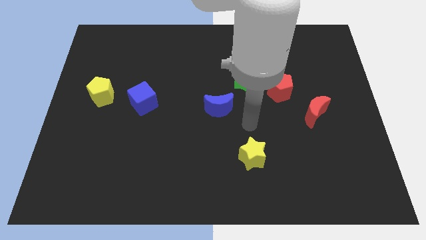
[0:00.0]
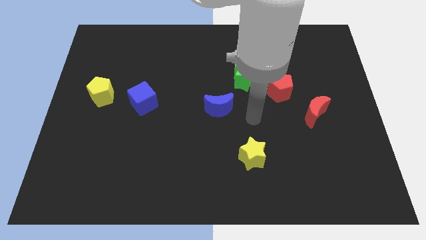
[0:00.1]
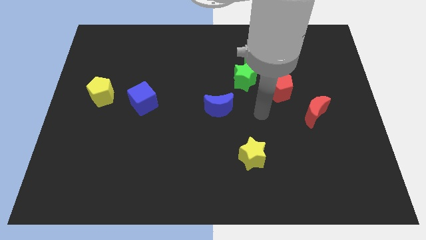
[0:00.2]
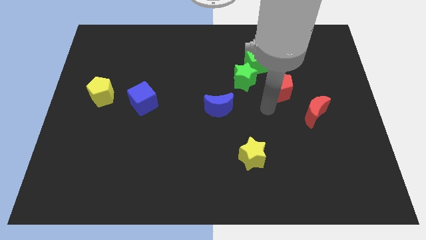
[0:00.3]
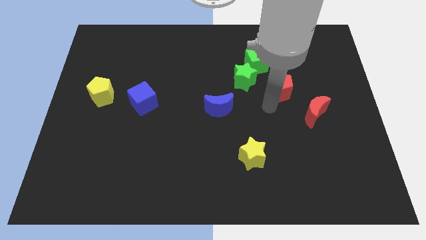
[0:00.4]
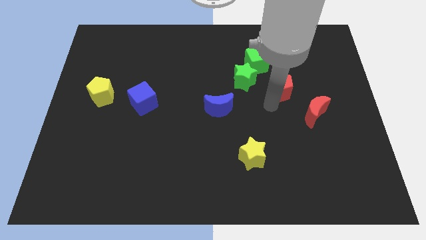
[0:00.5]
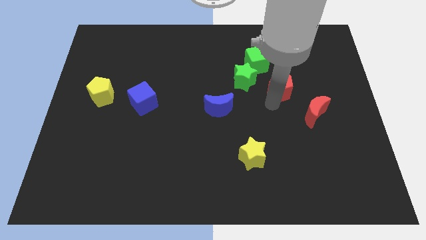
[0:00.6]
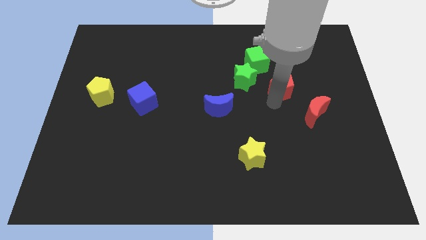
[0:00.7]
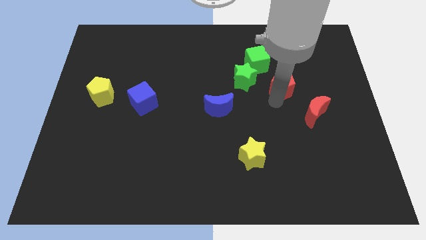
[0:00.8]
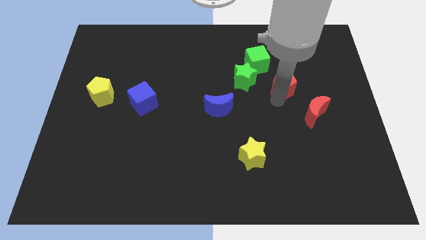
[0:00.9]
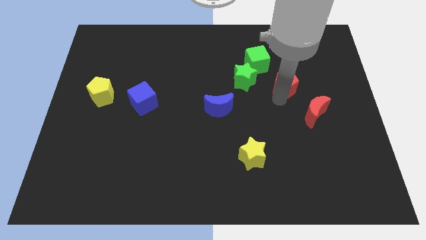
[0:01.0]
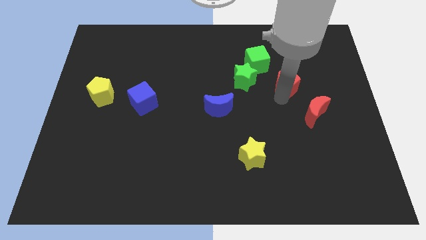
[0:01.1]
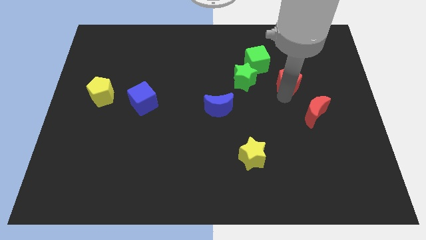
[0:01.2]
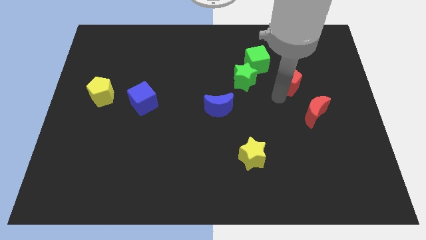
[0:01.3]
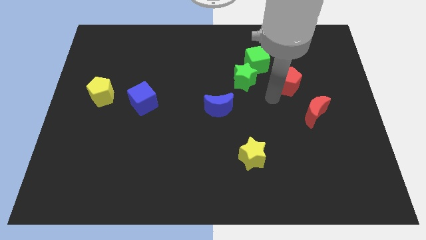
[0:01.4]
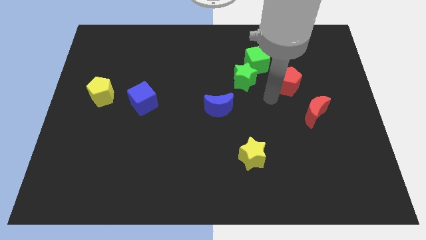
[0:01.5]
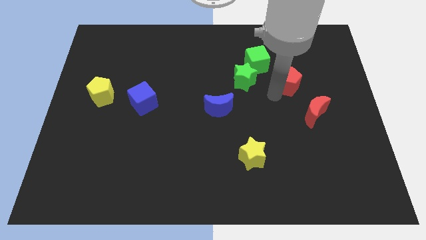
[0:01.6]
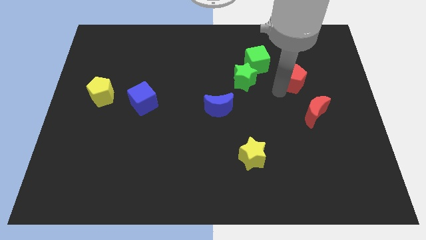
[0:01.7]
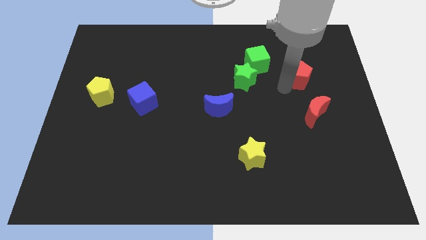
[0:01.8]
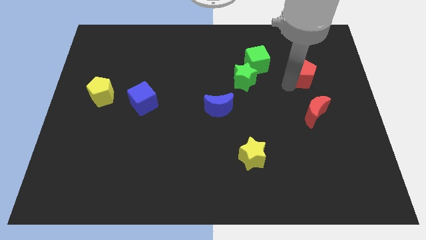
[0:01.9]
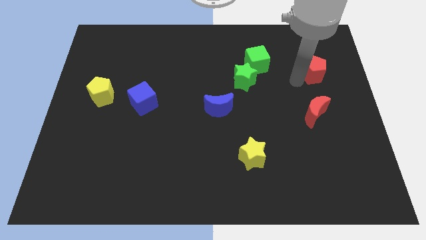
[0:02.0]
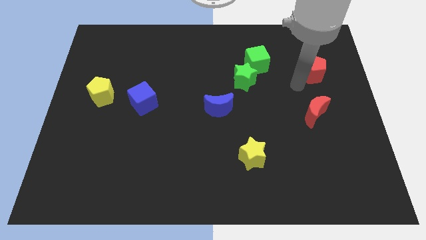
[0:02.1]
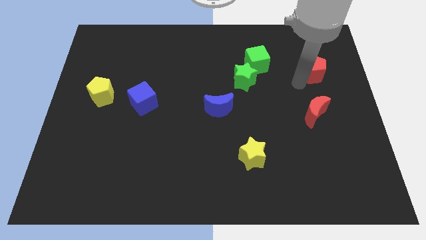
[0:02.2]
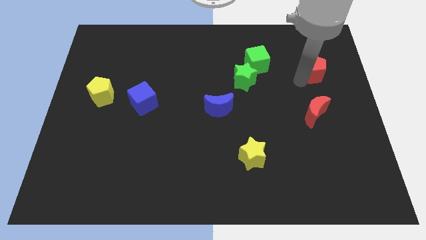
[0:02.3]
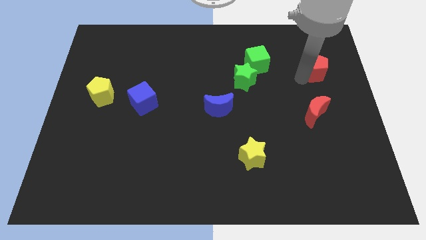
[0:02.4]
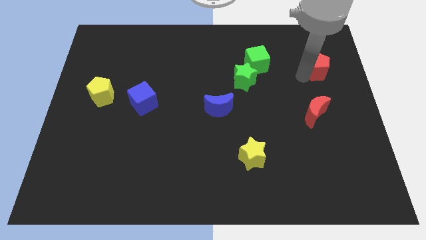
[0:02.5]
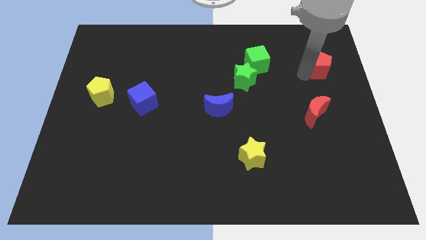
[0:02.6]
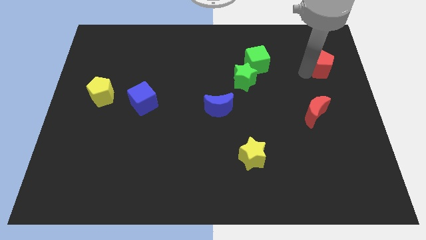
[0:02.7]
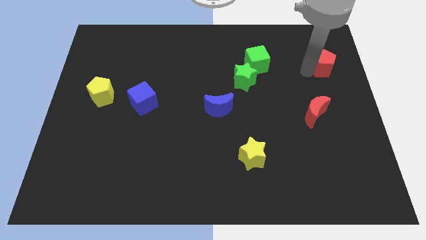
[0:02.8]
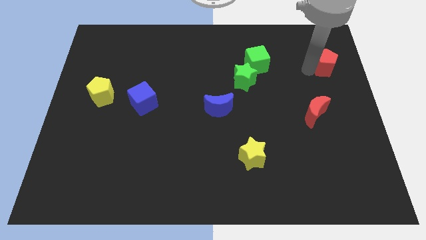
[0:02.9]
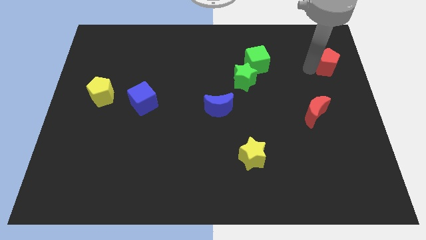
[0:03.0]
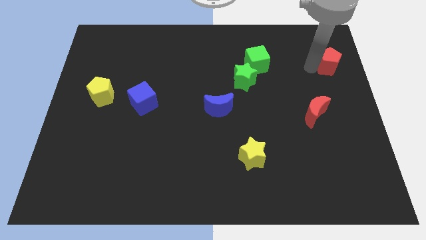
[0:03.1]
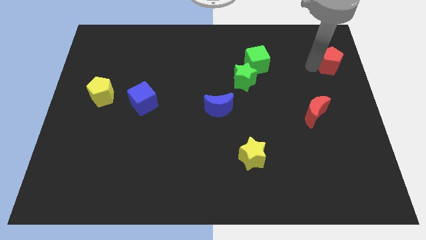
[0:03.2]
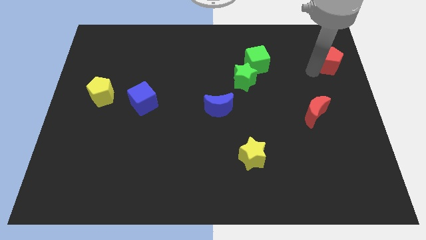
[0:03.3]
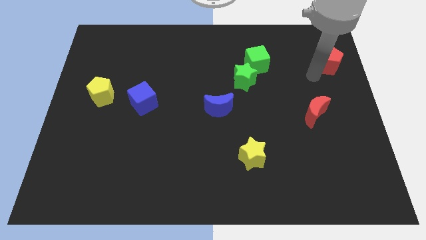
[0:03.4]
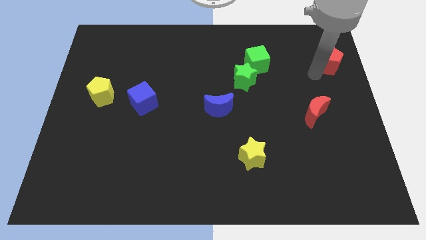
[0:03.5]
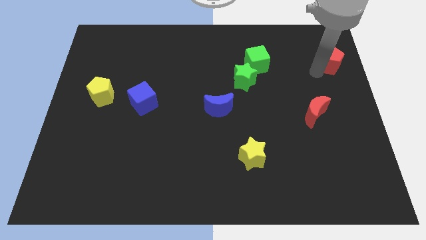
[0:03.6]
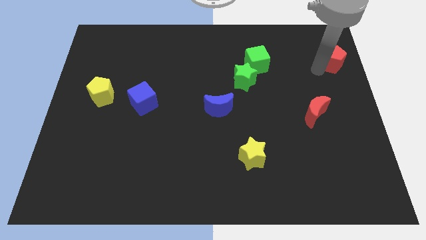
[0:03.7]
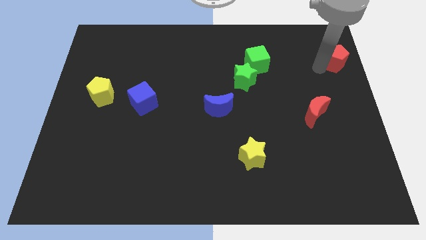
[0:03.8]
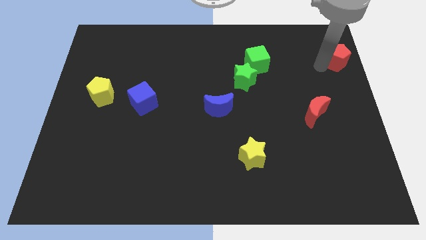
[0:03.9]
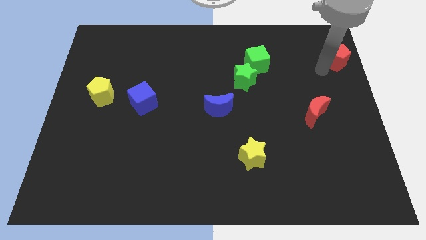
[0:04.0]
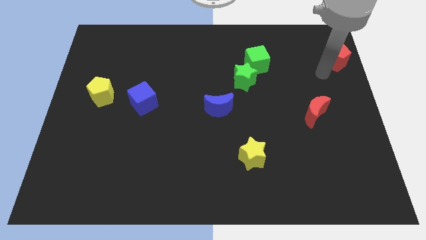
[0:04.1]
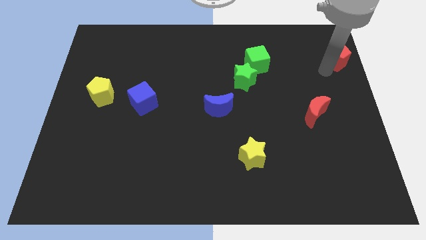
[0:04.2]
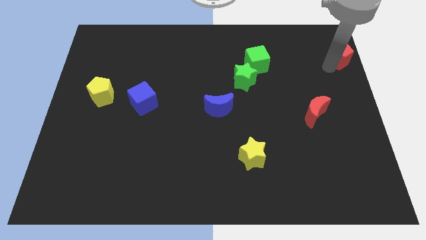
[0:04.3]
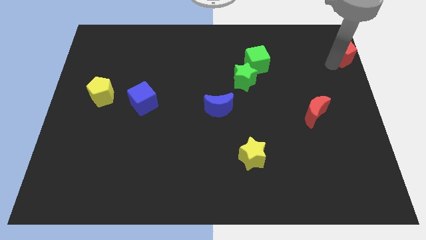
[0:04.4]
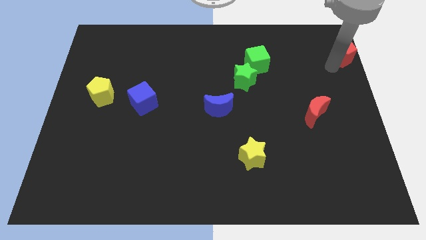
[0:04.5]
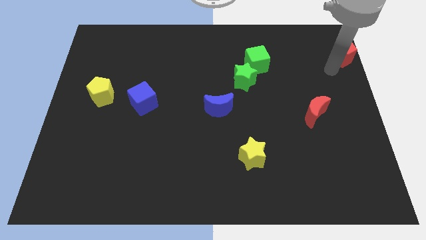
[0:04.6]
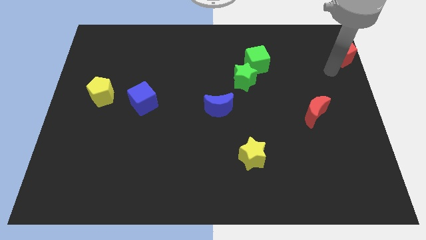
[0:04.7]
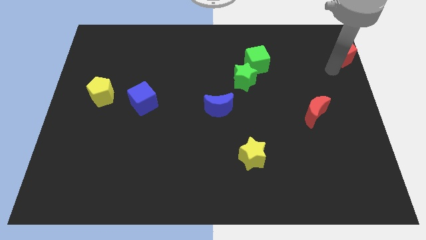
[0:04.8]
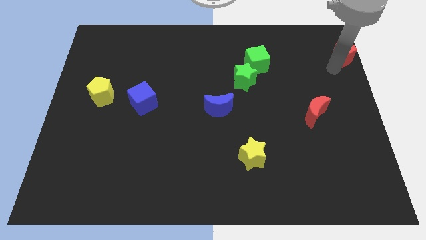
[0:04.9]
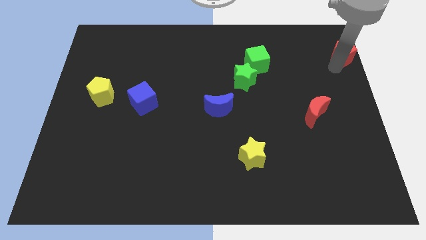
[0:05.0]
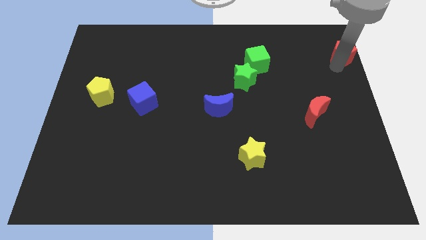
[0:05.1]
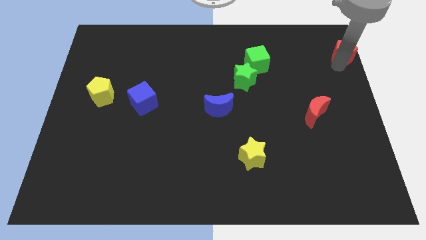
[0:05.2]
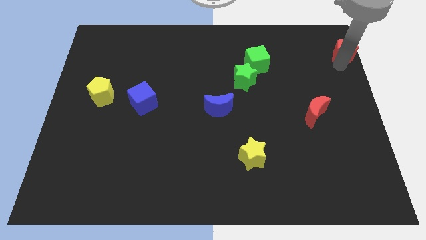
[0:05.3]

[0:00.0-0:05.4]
push the red pentagon to the top right corner

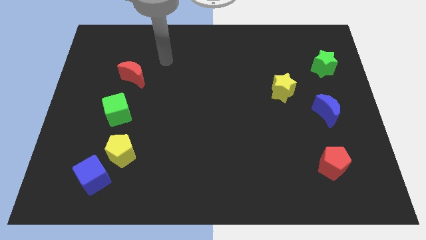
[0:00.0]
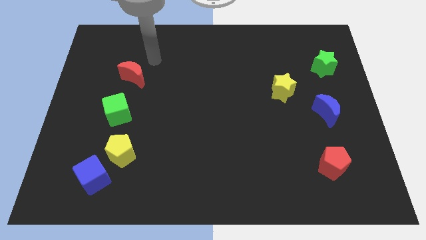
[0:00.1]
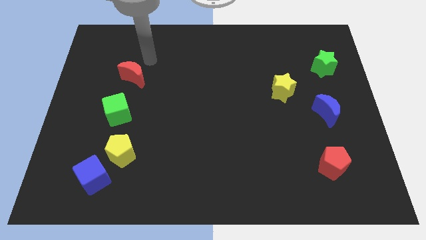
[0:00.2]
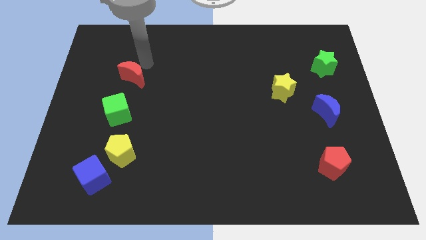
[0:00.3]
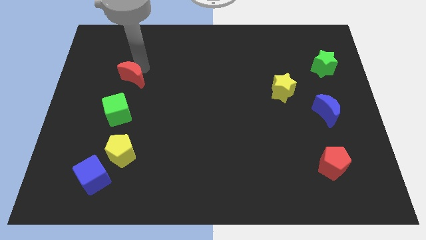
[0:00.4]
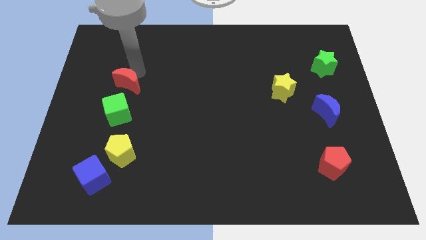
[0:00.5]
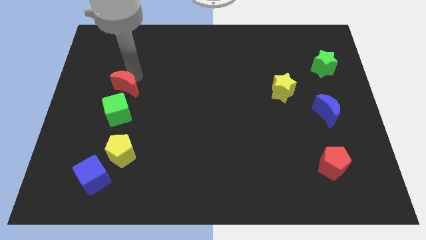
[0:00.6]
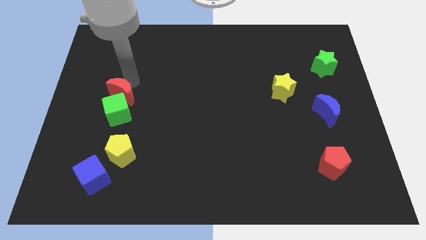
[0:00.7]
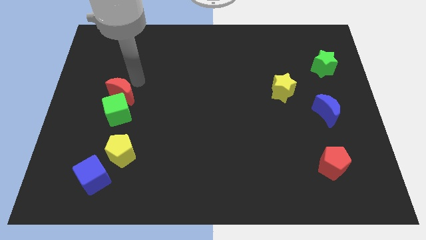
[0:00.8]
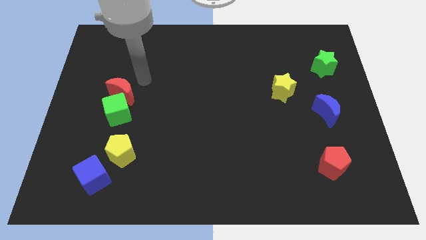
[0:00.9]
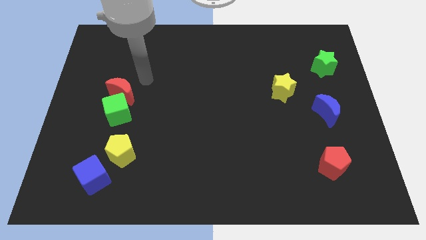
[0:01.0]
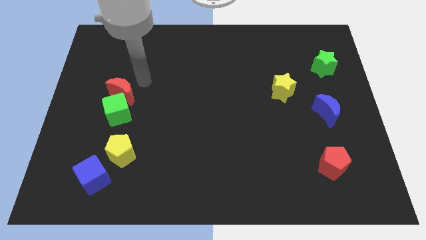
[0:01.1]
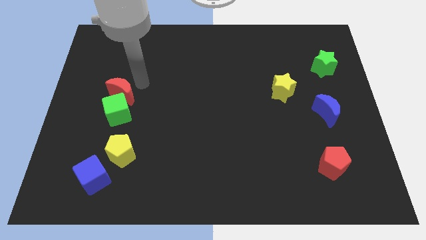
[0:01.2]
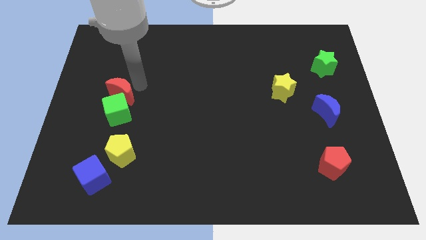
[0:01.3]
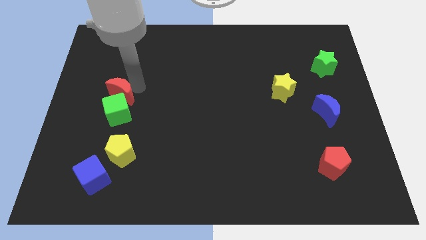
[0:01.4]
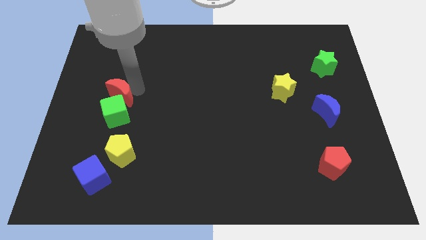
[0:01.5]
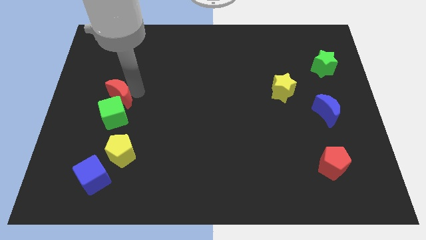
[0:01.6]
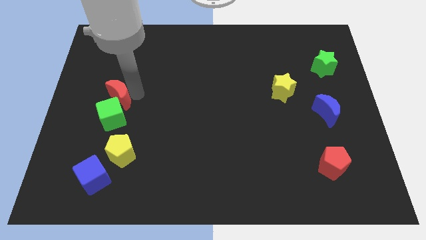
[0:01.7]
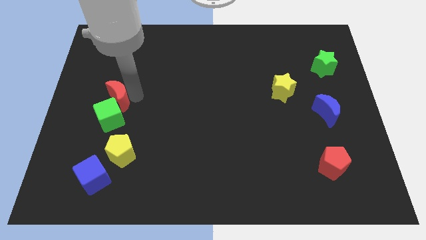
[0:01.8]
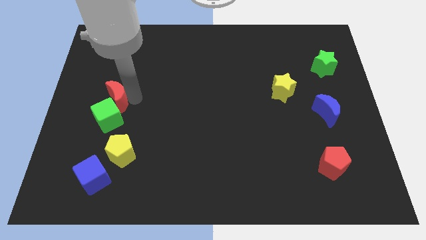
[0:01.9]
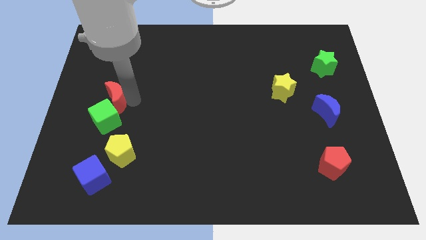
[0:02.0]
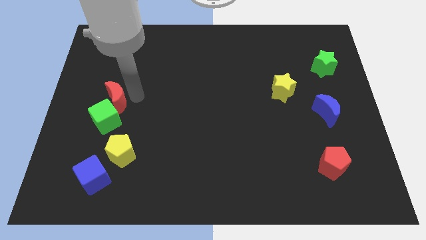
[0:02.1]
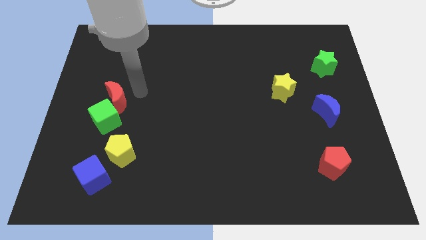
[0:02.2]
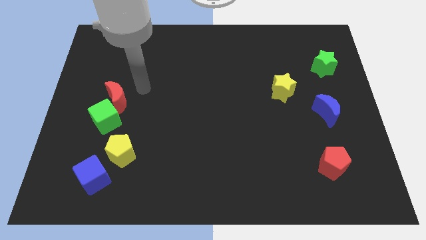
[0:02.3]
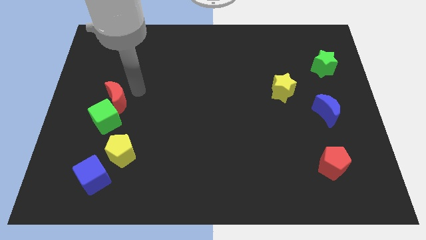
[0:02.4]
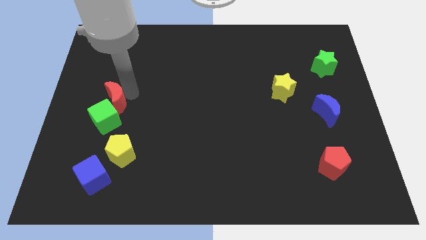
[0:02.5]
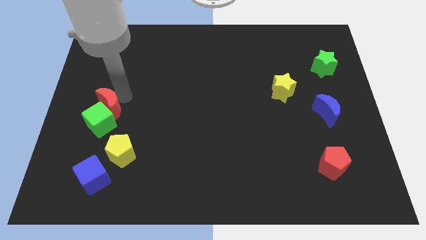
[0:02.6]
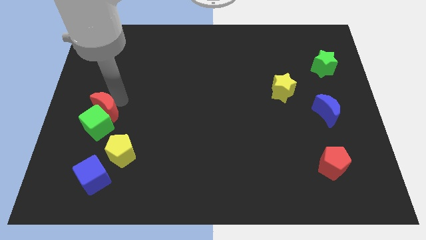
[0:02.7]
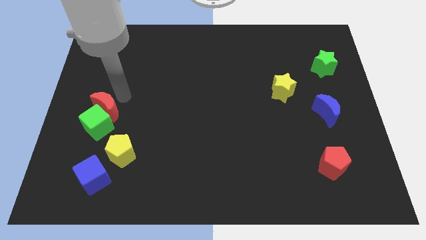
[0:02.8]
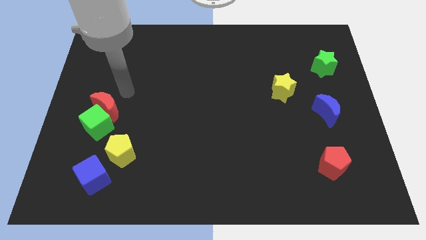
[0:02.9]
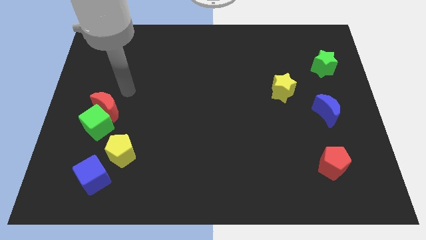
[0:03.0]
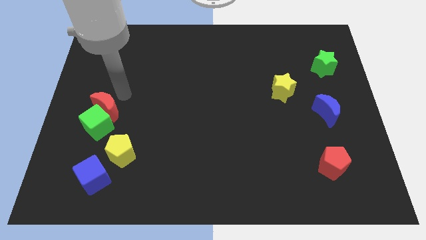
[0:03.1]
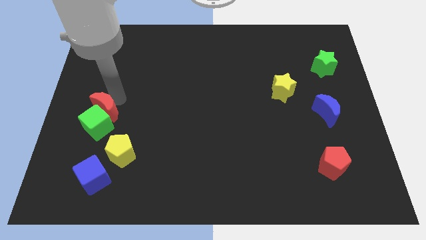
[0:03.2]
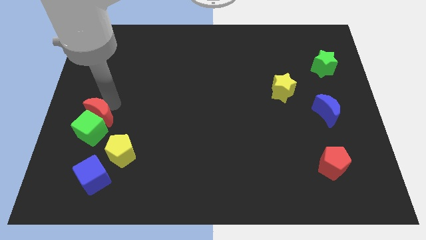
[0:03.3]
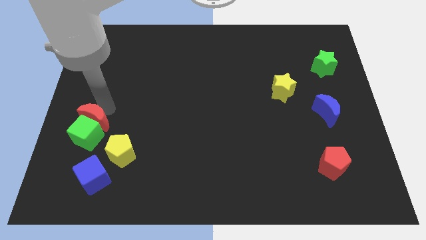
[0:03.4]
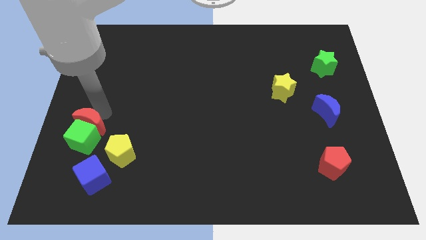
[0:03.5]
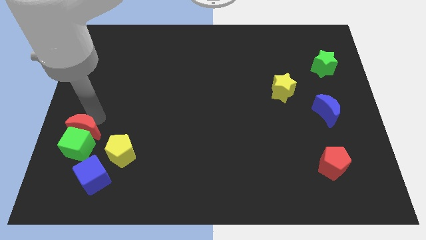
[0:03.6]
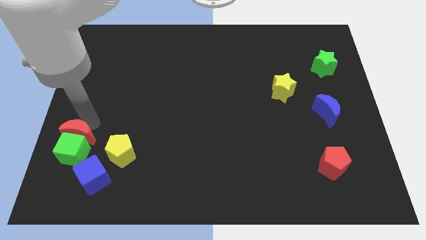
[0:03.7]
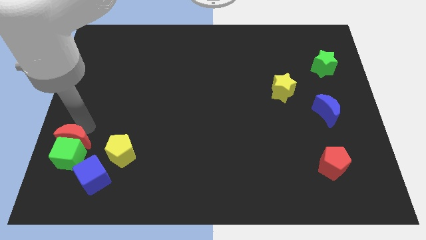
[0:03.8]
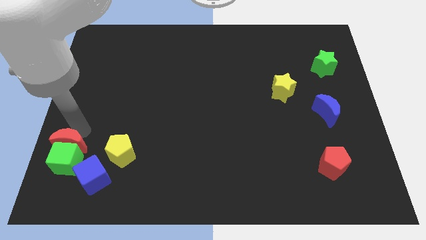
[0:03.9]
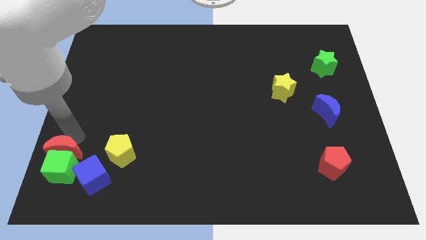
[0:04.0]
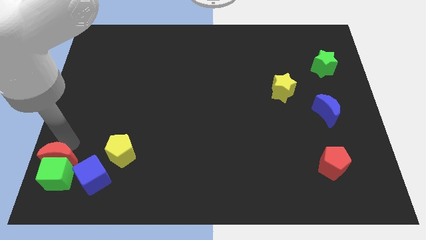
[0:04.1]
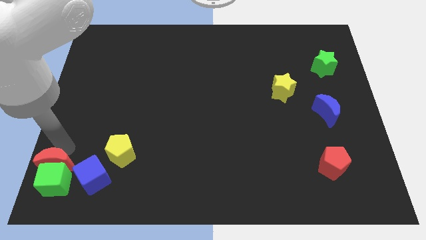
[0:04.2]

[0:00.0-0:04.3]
put the red moon to the bottom left
